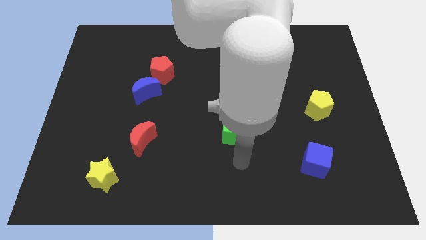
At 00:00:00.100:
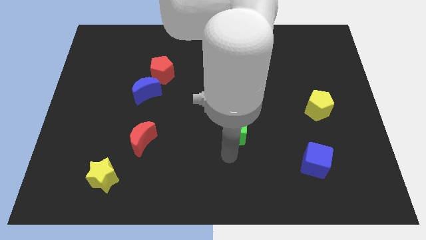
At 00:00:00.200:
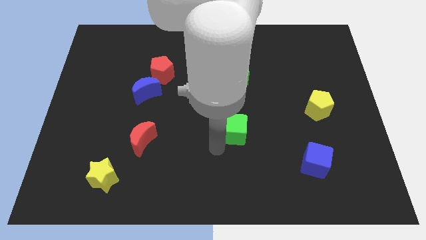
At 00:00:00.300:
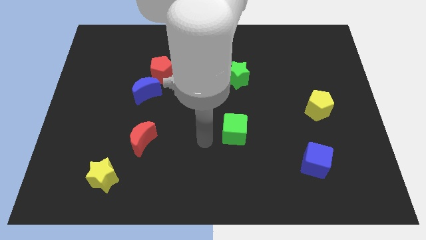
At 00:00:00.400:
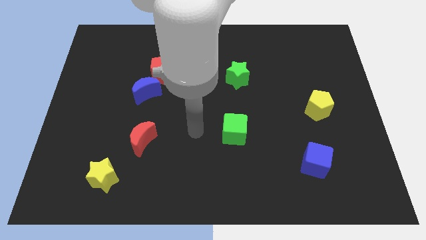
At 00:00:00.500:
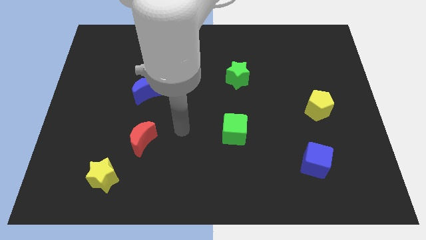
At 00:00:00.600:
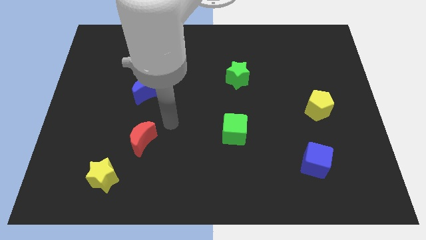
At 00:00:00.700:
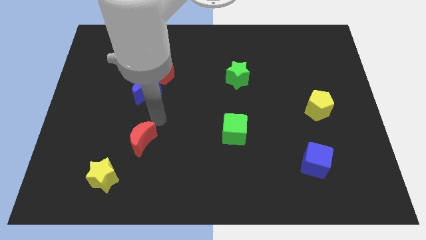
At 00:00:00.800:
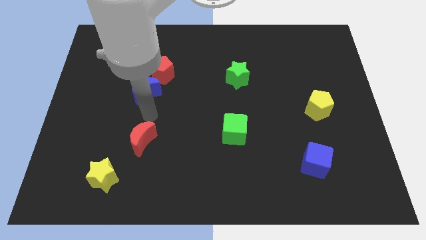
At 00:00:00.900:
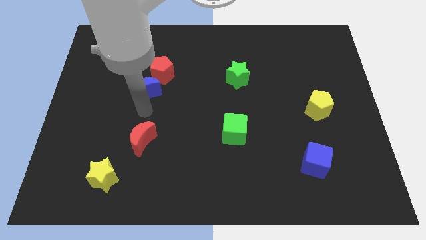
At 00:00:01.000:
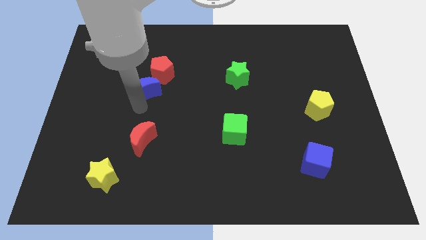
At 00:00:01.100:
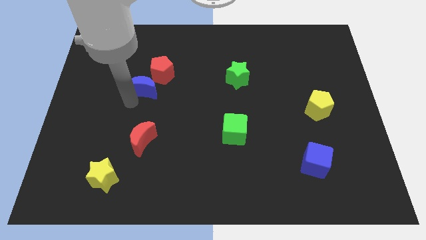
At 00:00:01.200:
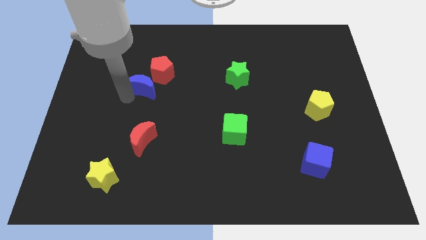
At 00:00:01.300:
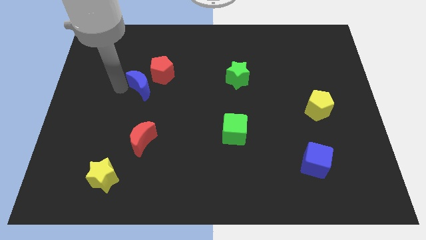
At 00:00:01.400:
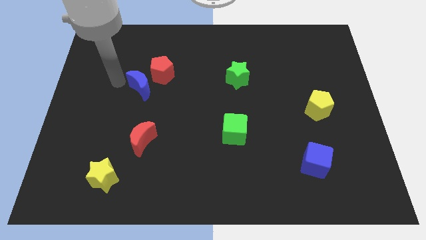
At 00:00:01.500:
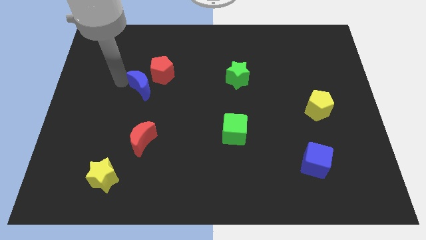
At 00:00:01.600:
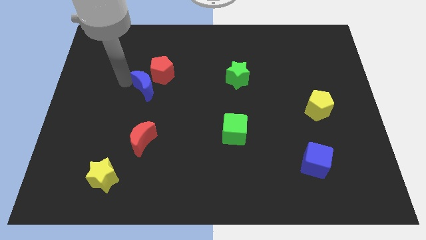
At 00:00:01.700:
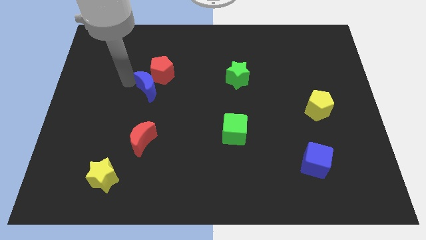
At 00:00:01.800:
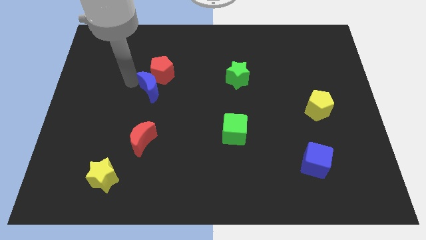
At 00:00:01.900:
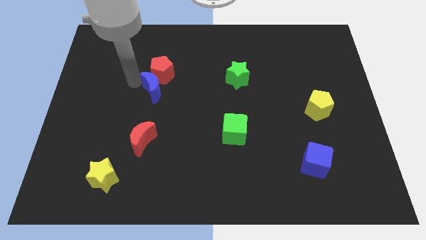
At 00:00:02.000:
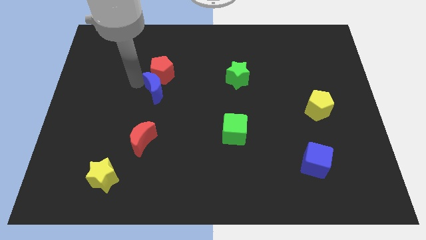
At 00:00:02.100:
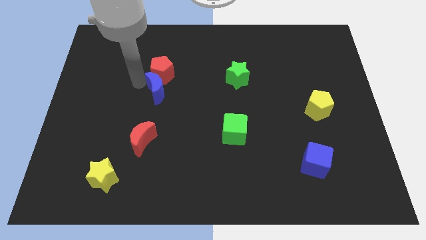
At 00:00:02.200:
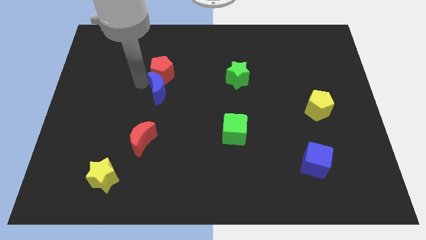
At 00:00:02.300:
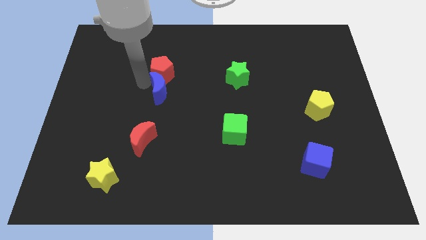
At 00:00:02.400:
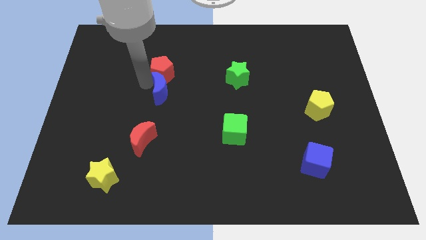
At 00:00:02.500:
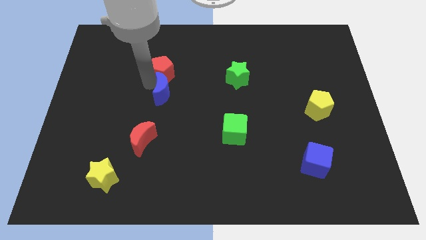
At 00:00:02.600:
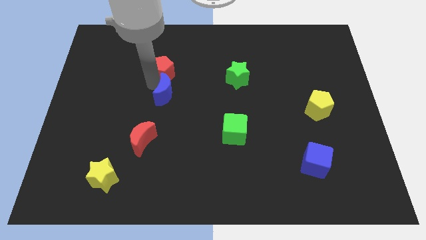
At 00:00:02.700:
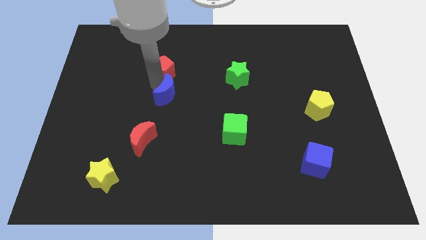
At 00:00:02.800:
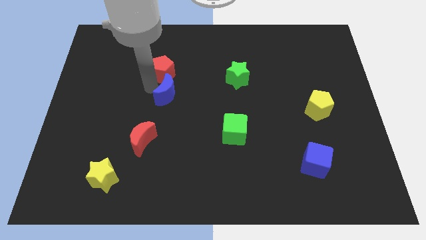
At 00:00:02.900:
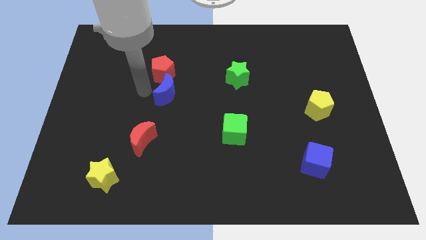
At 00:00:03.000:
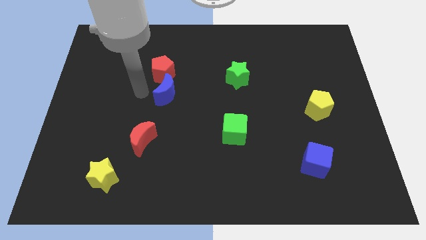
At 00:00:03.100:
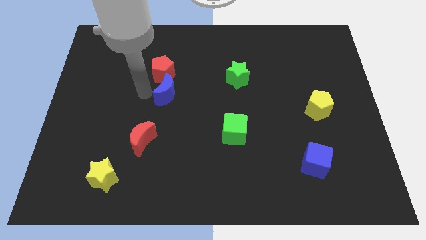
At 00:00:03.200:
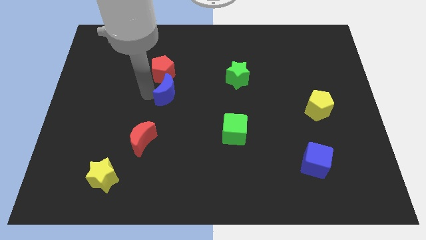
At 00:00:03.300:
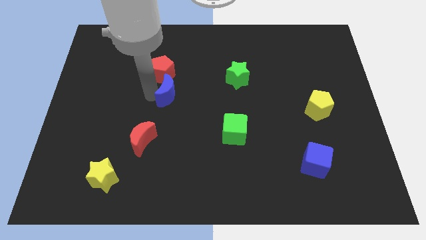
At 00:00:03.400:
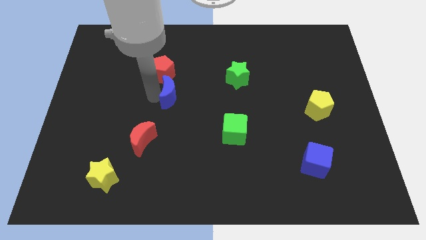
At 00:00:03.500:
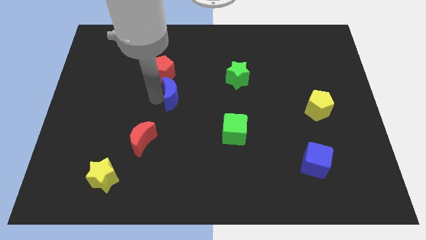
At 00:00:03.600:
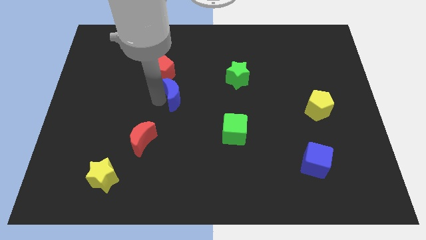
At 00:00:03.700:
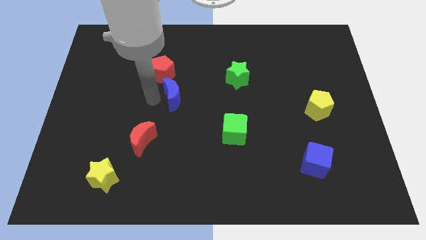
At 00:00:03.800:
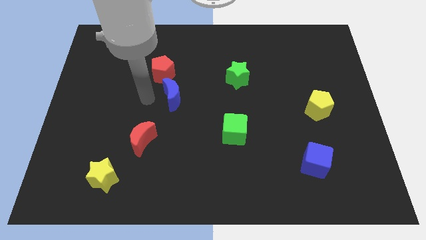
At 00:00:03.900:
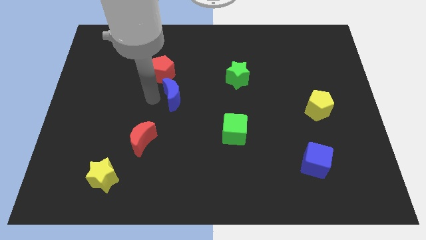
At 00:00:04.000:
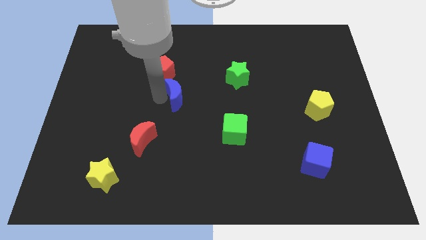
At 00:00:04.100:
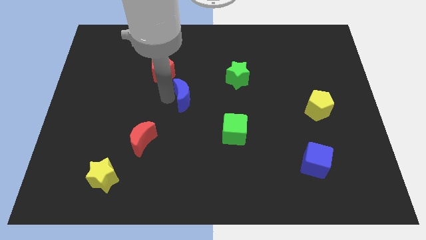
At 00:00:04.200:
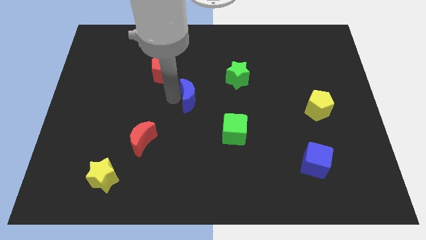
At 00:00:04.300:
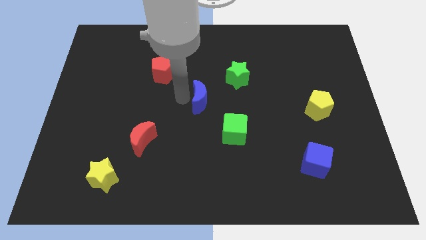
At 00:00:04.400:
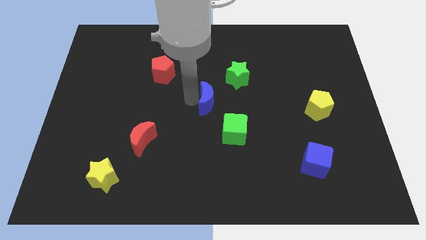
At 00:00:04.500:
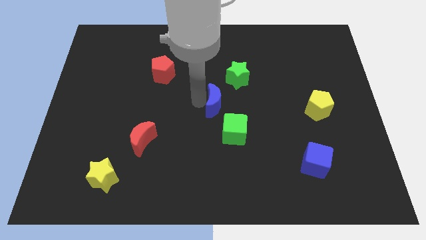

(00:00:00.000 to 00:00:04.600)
slide the blue moon to the top of the green cube

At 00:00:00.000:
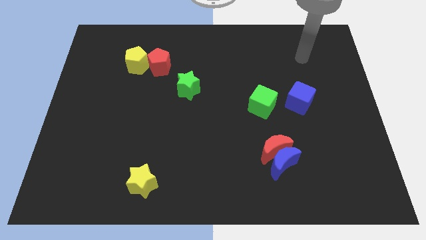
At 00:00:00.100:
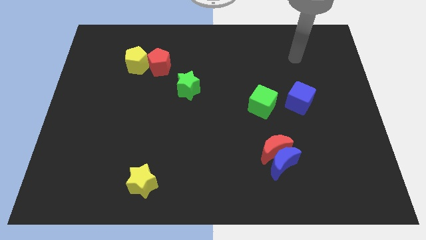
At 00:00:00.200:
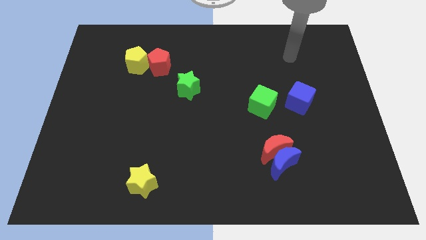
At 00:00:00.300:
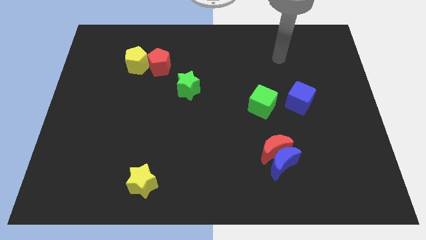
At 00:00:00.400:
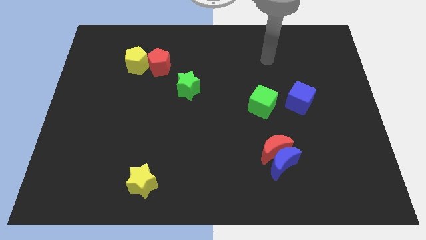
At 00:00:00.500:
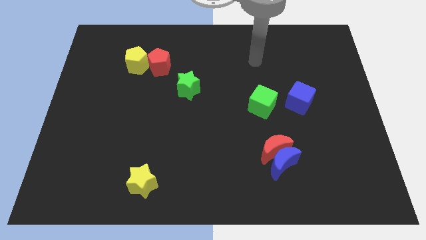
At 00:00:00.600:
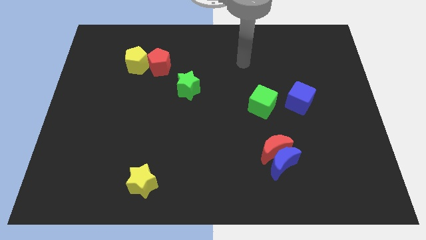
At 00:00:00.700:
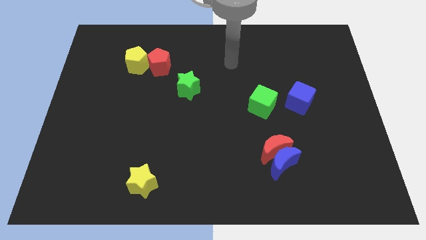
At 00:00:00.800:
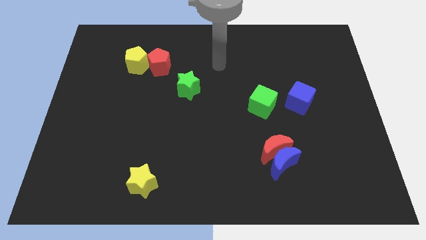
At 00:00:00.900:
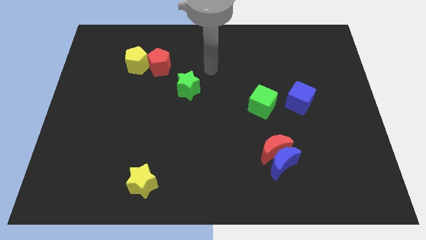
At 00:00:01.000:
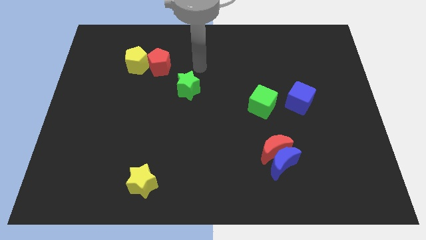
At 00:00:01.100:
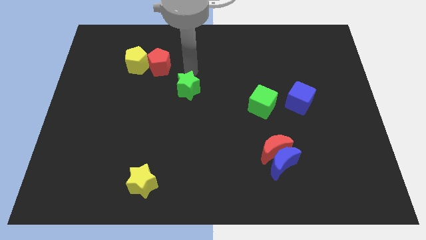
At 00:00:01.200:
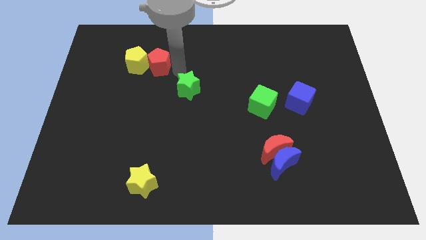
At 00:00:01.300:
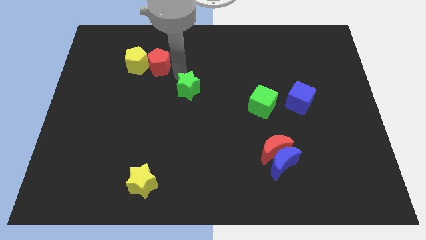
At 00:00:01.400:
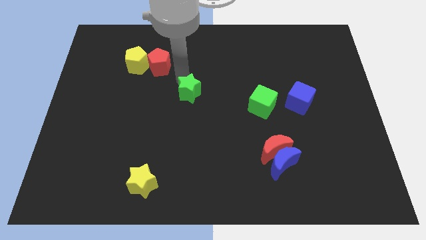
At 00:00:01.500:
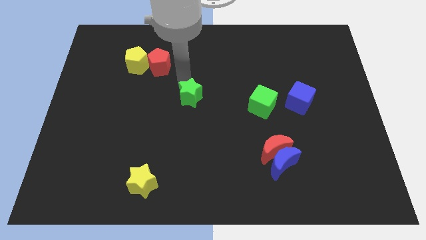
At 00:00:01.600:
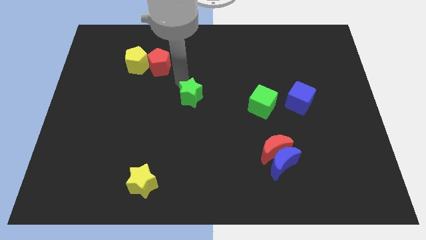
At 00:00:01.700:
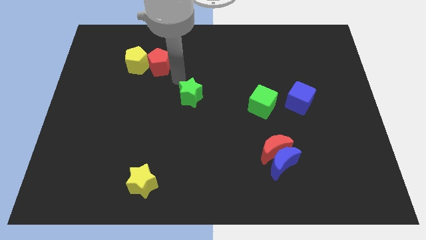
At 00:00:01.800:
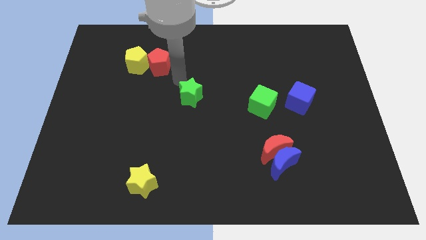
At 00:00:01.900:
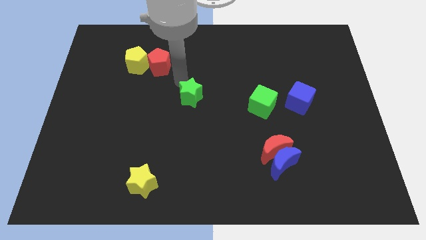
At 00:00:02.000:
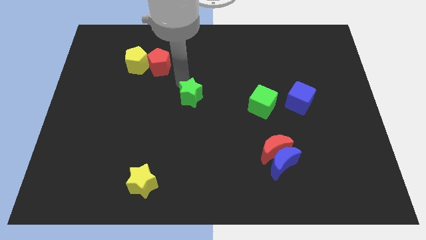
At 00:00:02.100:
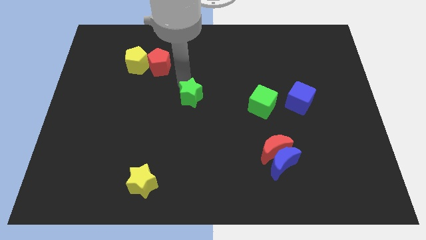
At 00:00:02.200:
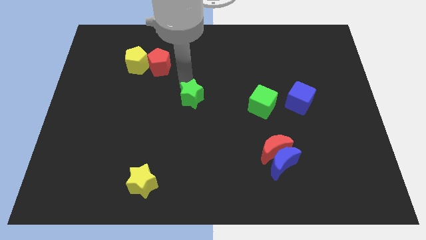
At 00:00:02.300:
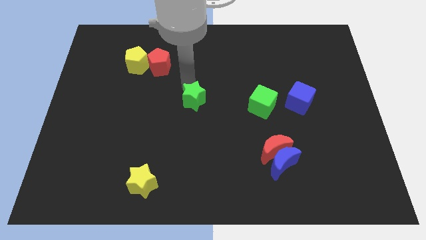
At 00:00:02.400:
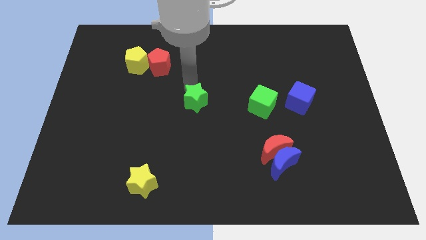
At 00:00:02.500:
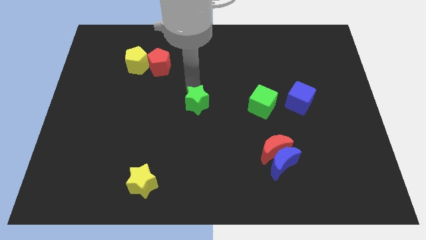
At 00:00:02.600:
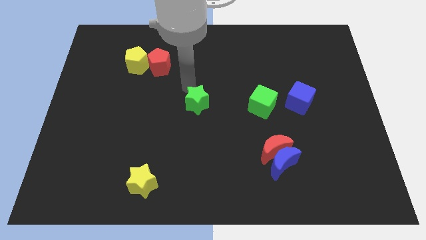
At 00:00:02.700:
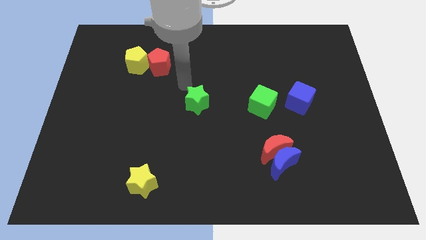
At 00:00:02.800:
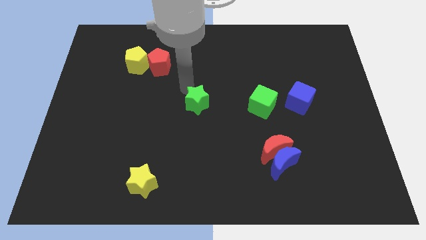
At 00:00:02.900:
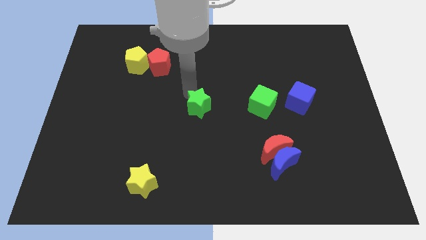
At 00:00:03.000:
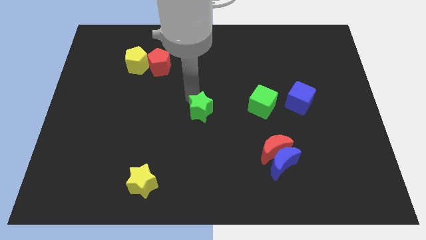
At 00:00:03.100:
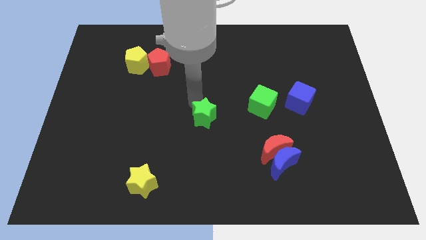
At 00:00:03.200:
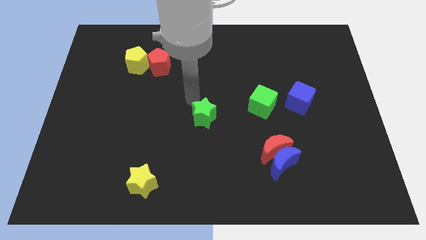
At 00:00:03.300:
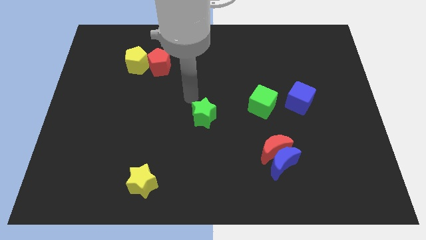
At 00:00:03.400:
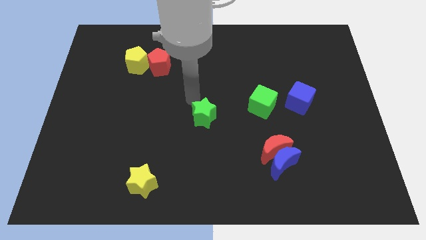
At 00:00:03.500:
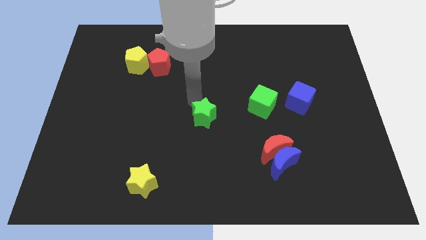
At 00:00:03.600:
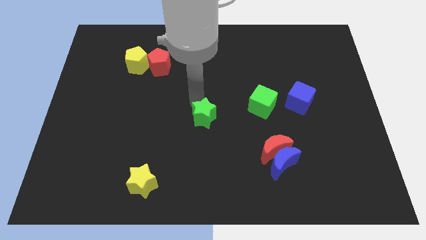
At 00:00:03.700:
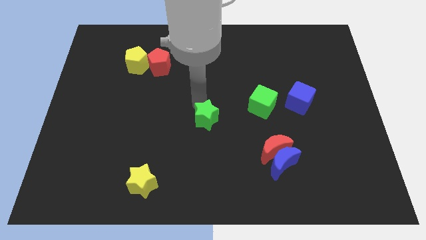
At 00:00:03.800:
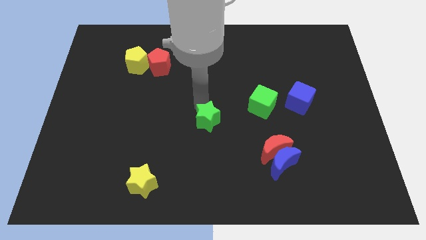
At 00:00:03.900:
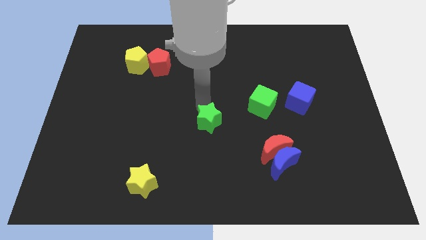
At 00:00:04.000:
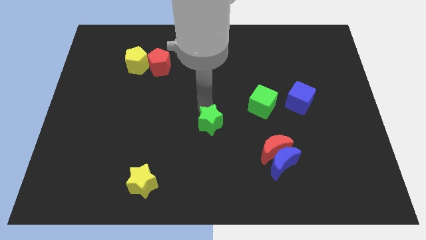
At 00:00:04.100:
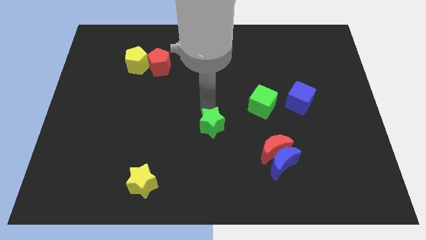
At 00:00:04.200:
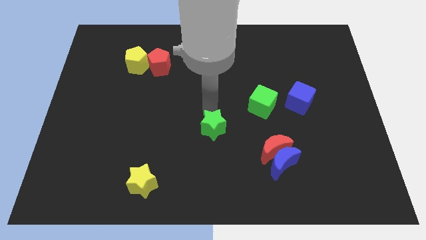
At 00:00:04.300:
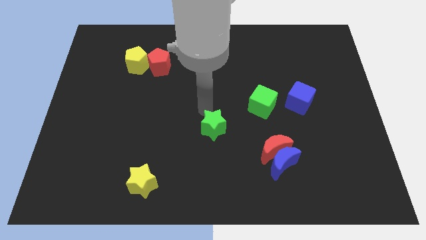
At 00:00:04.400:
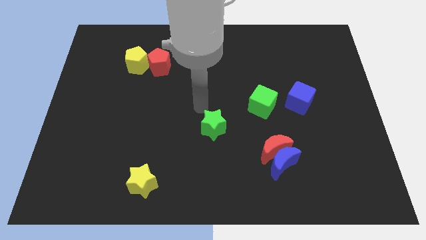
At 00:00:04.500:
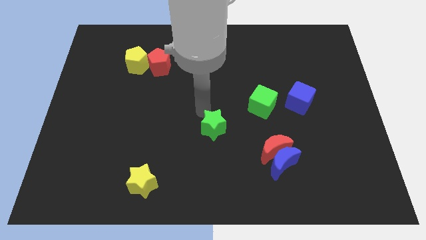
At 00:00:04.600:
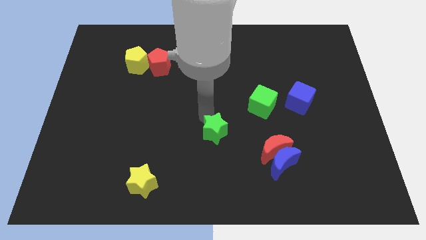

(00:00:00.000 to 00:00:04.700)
move the green star to the left of the red moon
